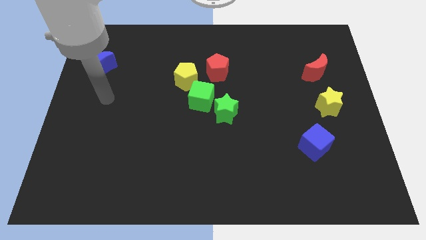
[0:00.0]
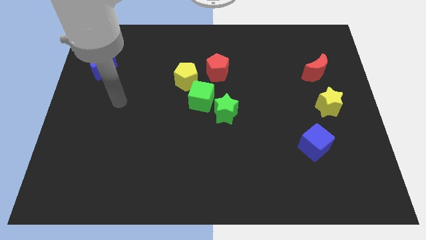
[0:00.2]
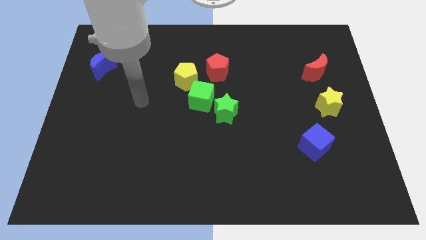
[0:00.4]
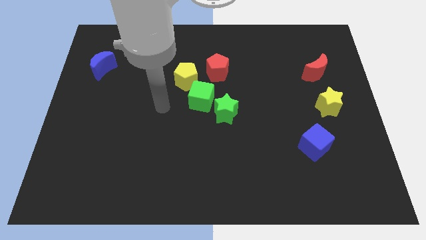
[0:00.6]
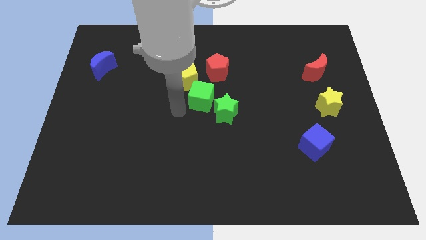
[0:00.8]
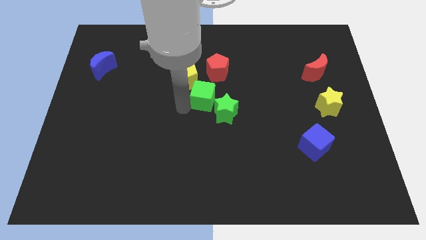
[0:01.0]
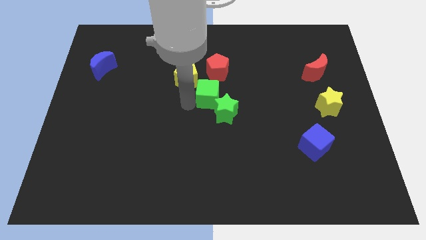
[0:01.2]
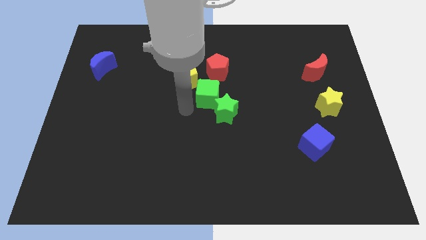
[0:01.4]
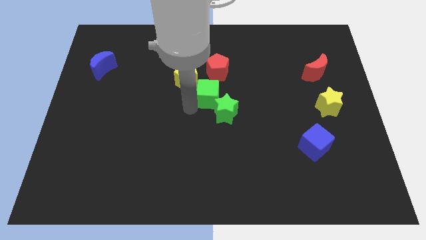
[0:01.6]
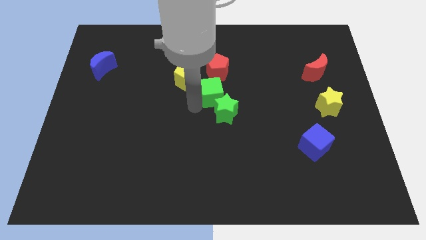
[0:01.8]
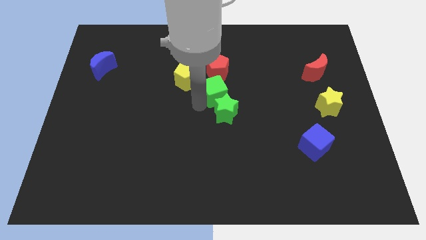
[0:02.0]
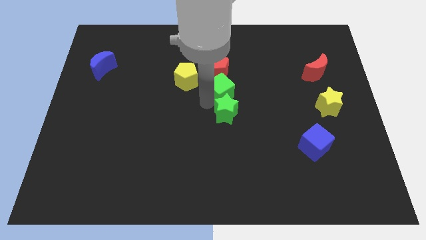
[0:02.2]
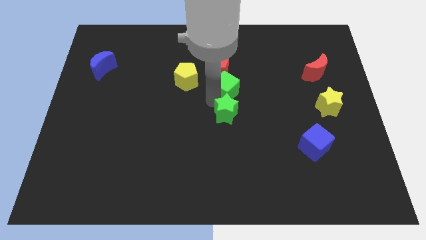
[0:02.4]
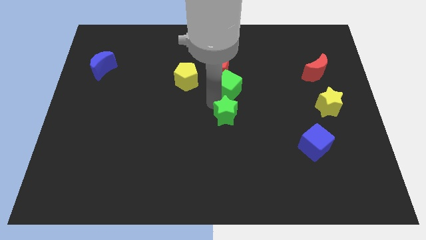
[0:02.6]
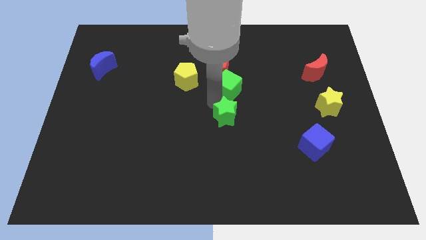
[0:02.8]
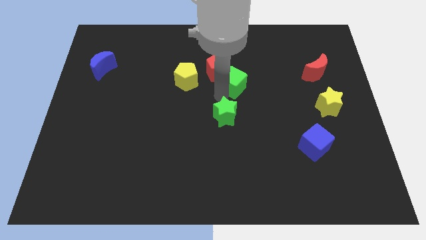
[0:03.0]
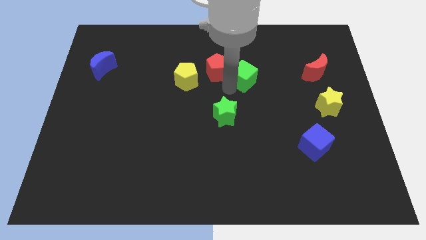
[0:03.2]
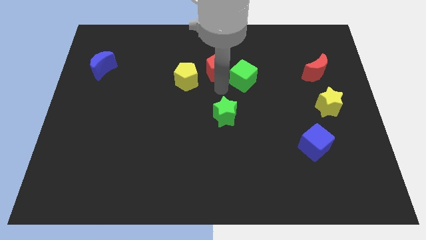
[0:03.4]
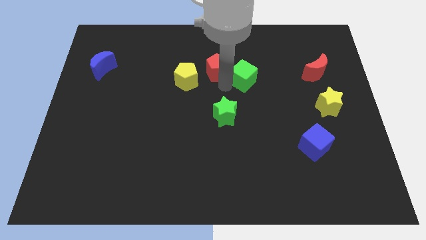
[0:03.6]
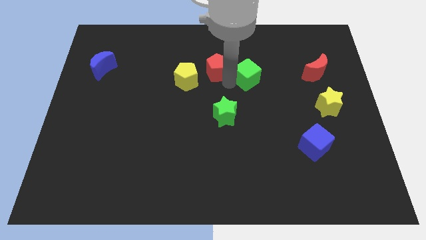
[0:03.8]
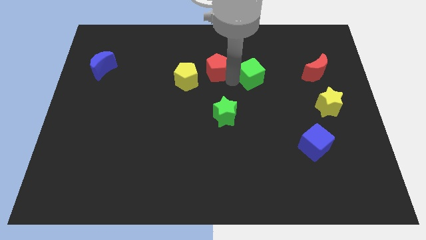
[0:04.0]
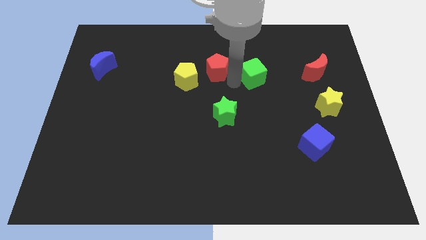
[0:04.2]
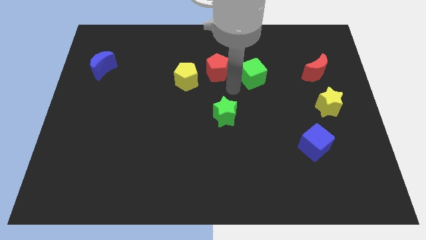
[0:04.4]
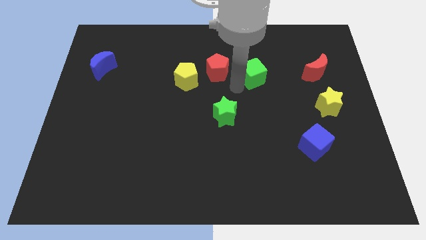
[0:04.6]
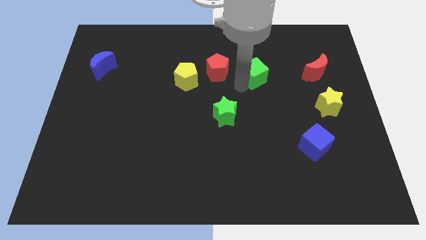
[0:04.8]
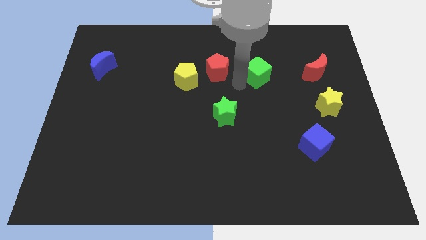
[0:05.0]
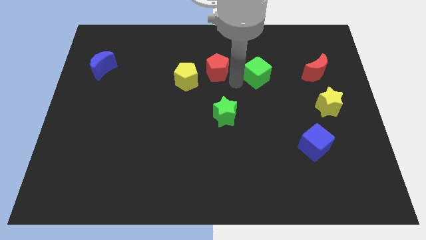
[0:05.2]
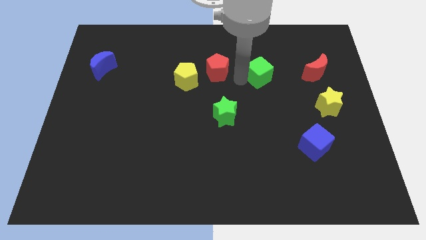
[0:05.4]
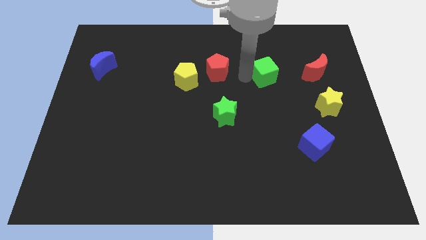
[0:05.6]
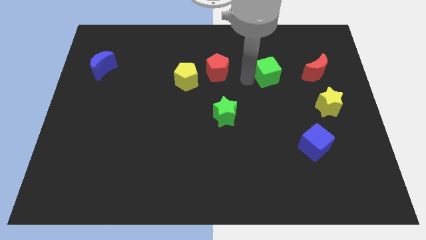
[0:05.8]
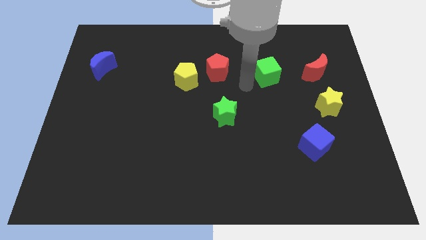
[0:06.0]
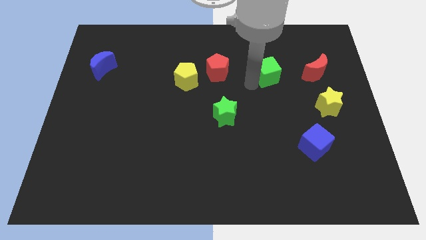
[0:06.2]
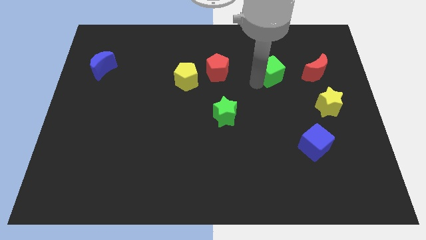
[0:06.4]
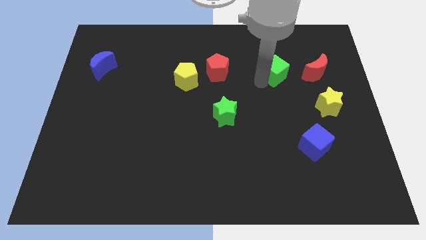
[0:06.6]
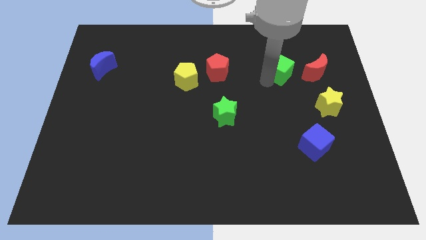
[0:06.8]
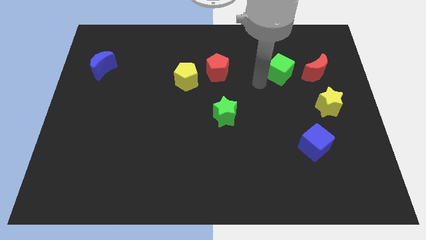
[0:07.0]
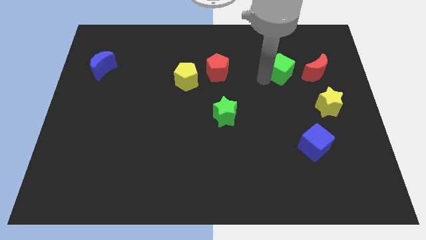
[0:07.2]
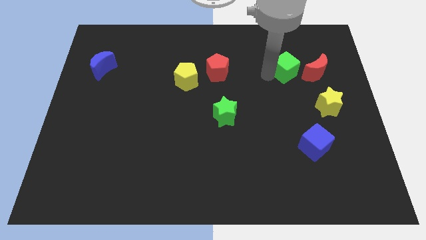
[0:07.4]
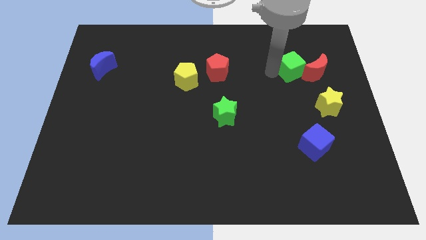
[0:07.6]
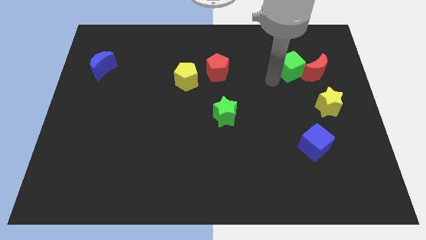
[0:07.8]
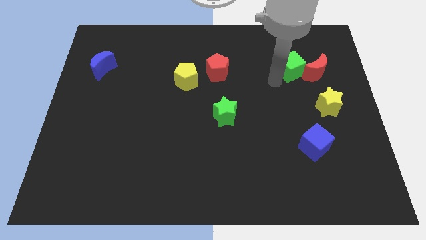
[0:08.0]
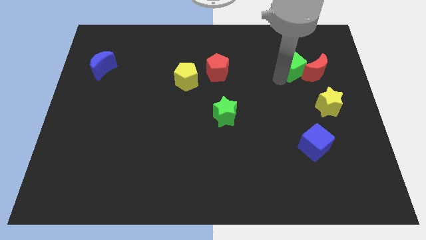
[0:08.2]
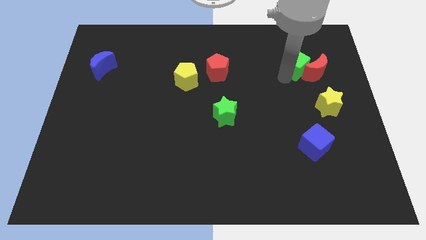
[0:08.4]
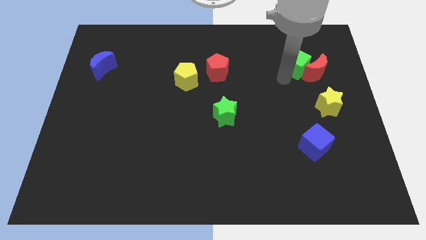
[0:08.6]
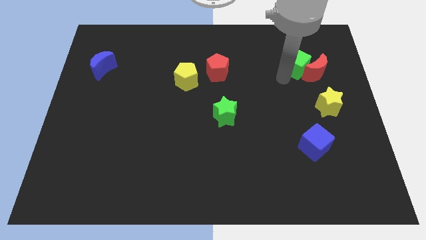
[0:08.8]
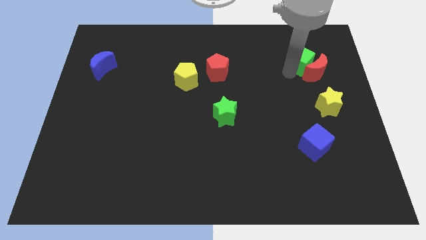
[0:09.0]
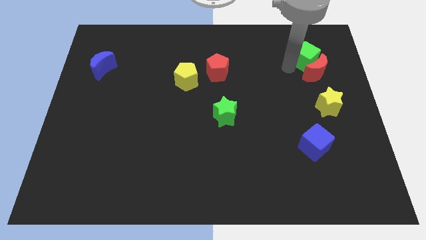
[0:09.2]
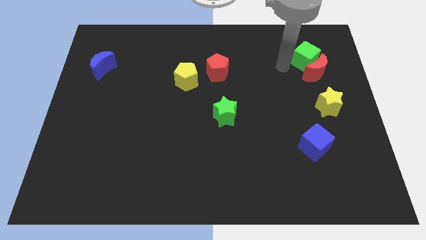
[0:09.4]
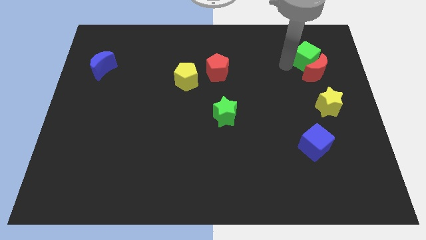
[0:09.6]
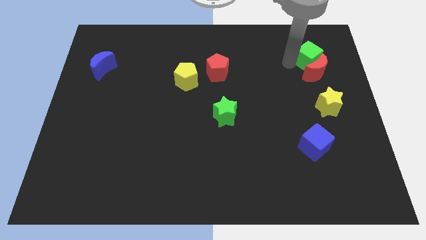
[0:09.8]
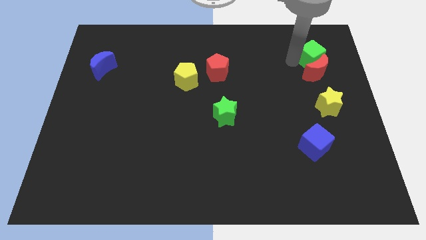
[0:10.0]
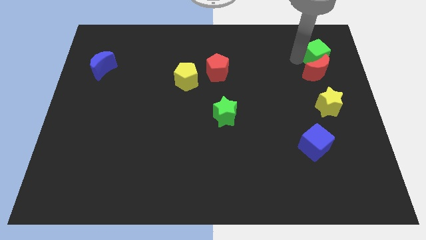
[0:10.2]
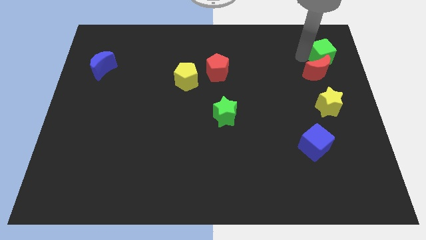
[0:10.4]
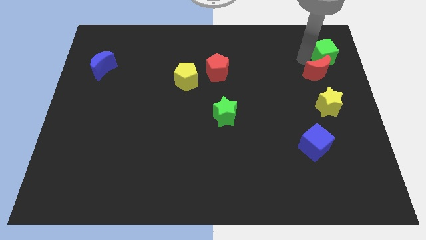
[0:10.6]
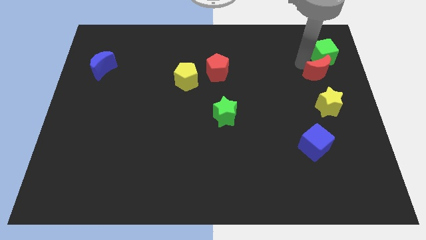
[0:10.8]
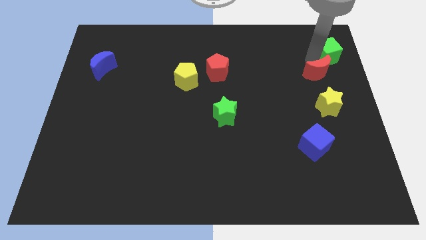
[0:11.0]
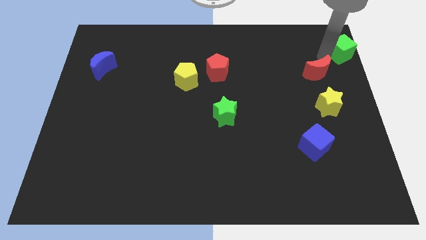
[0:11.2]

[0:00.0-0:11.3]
slide the green cube to the top right corner
